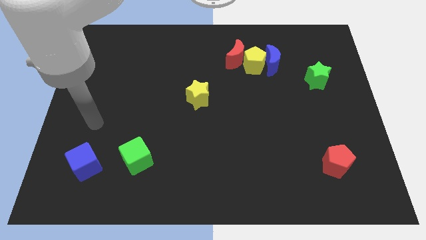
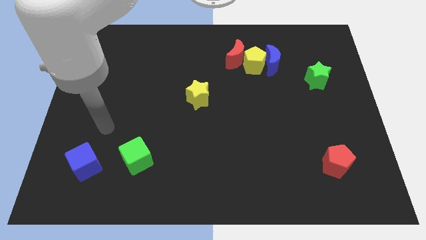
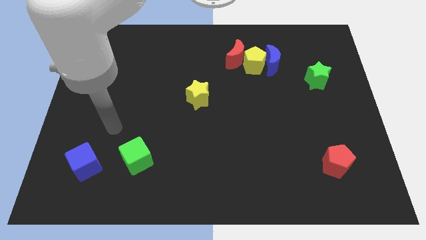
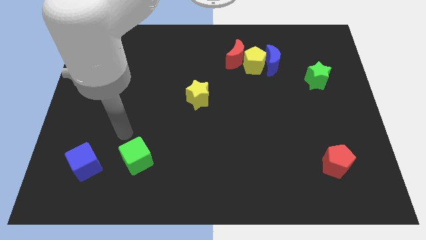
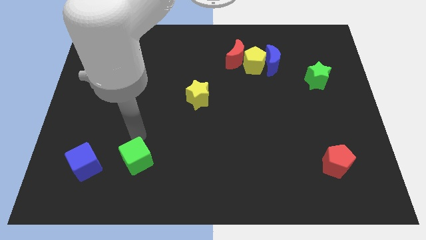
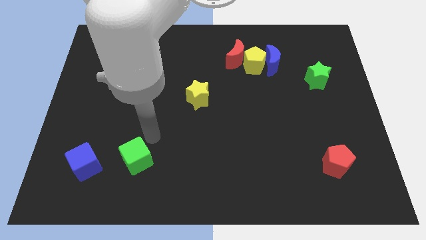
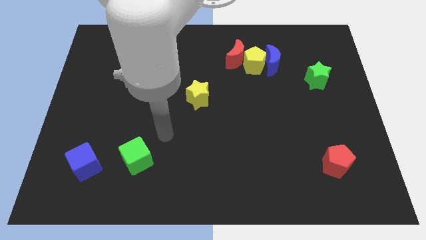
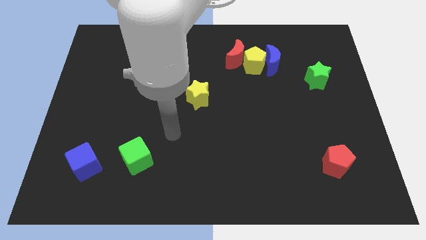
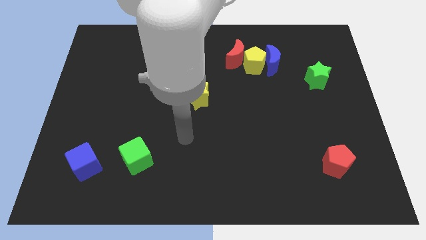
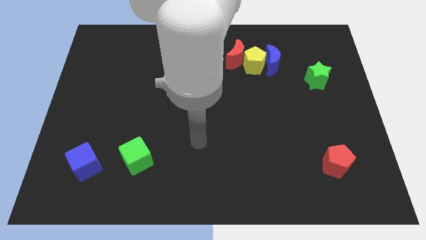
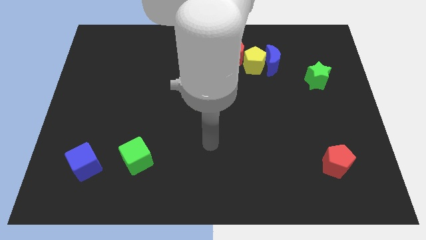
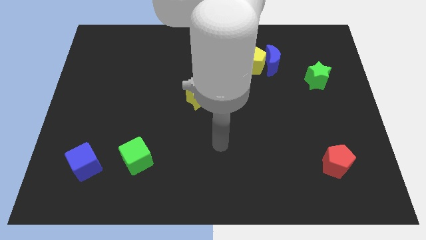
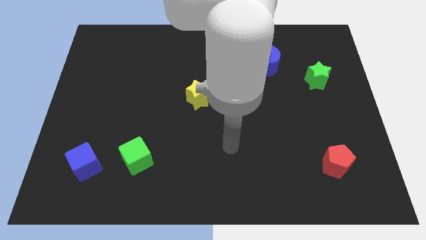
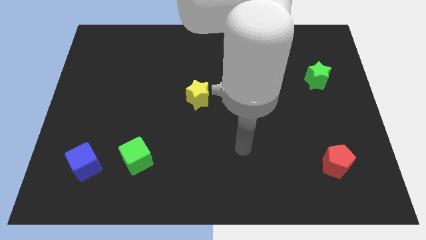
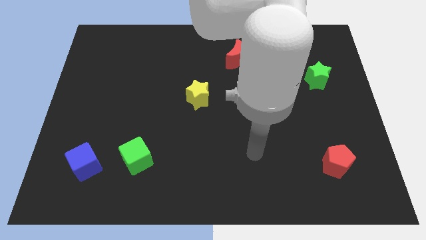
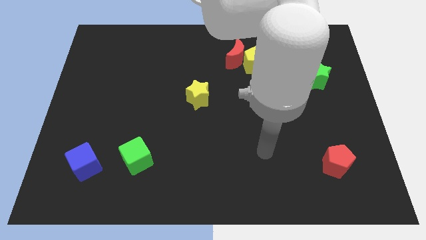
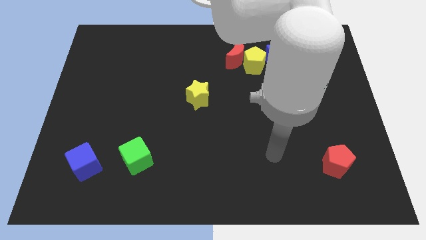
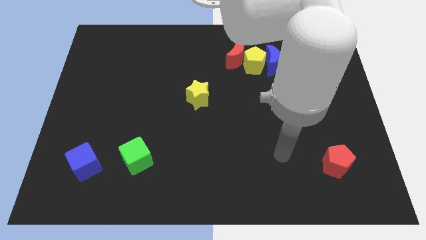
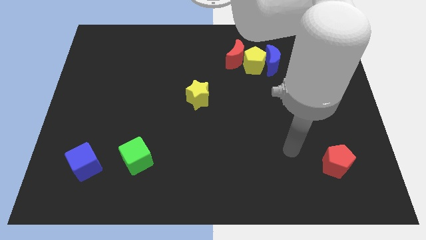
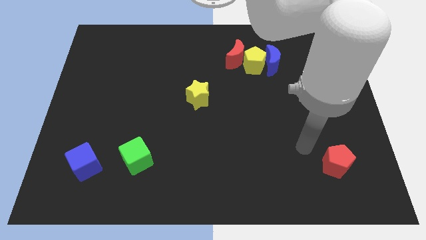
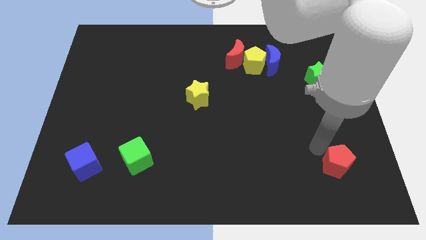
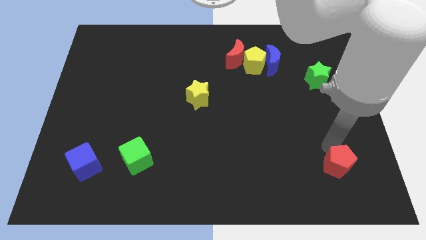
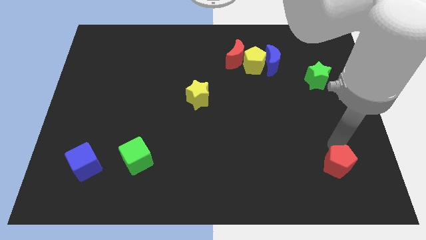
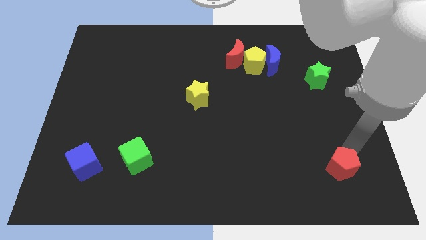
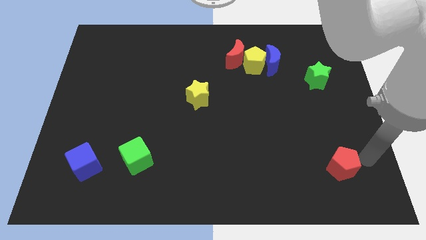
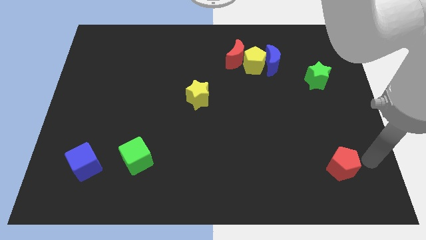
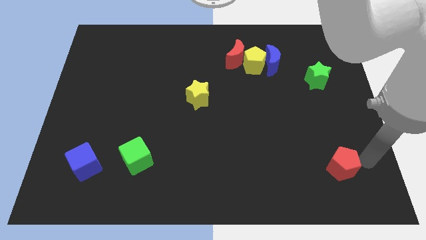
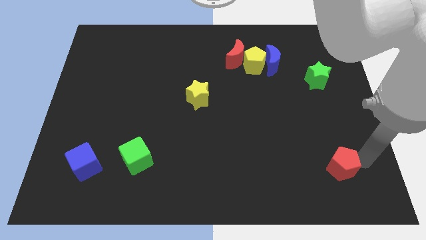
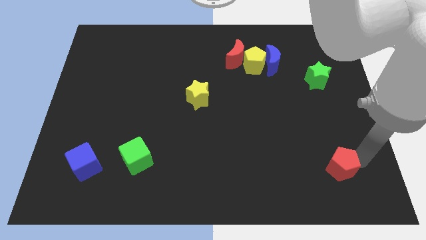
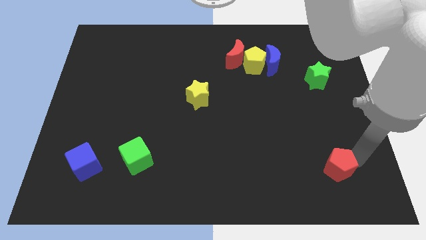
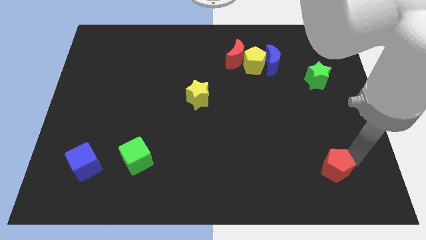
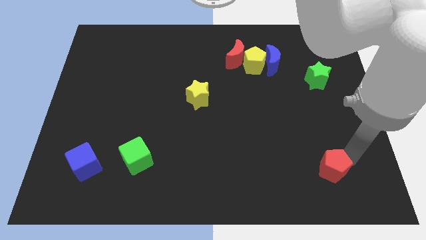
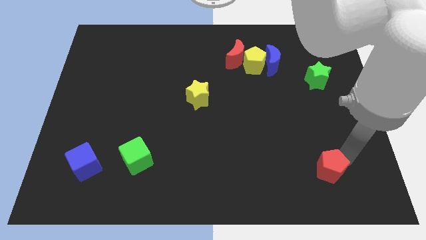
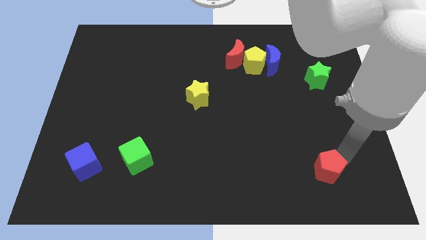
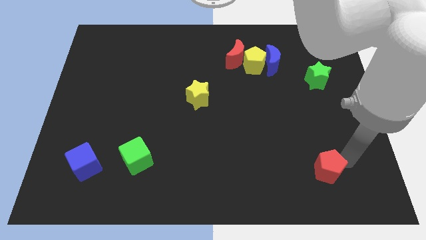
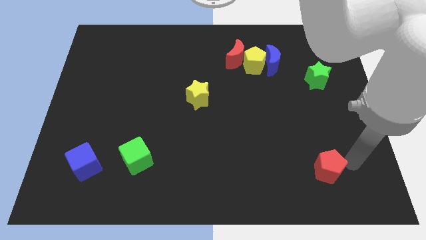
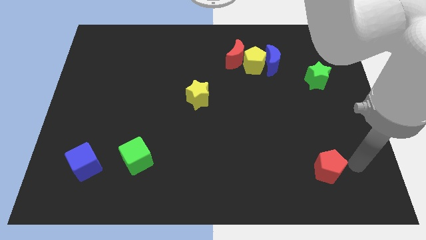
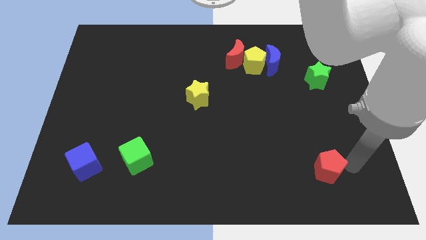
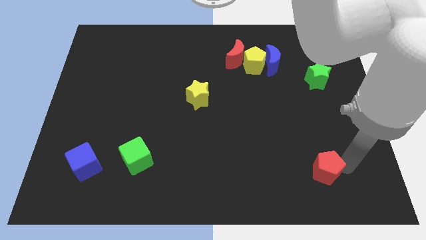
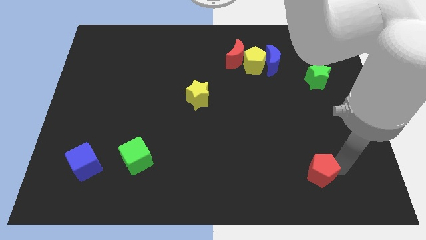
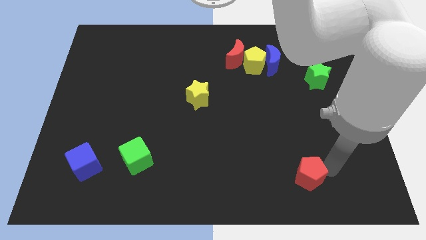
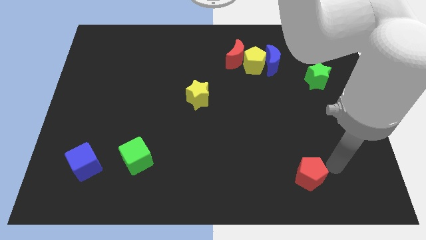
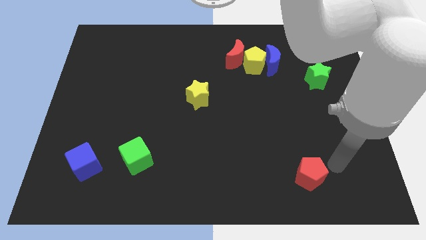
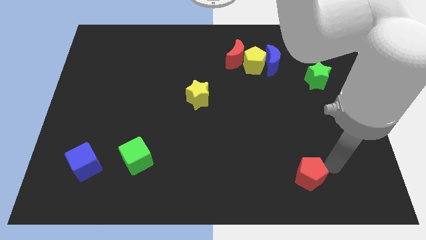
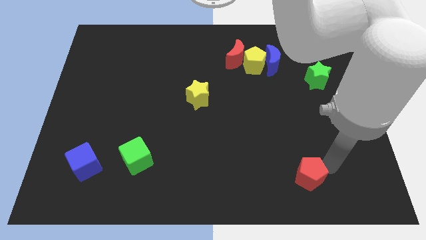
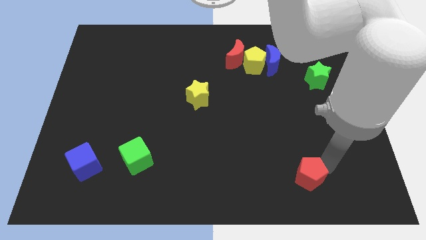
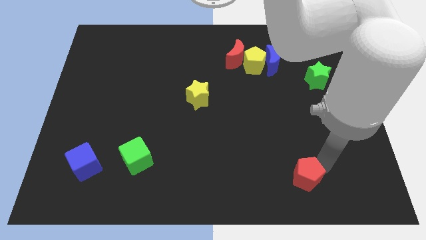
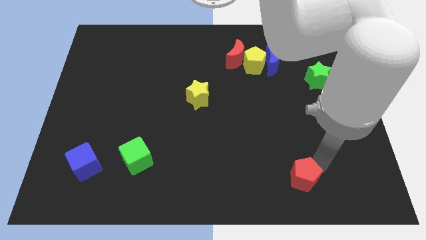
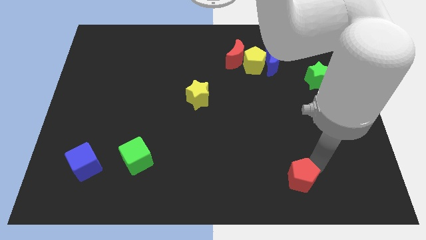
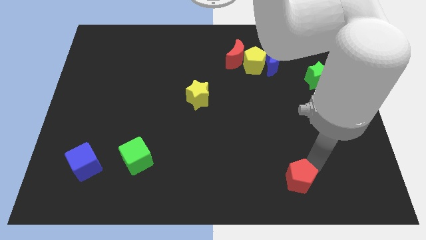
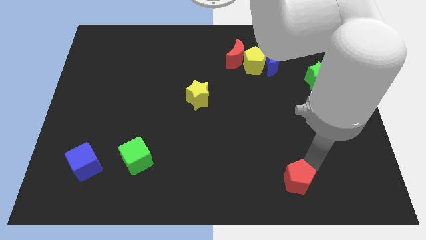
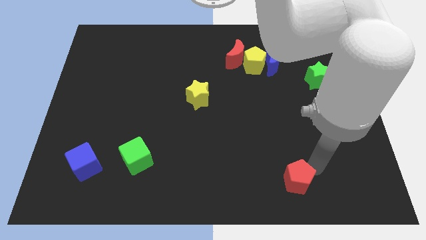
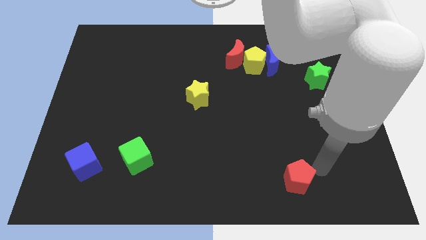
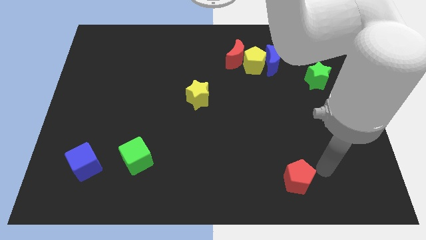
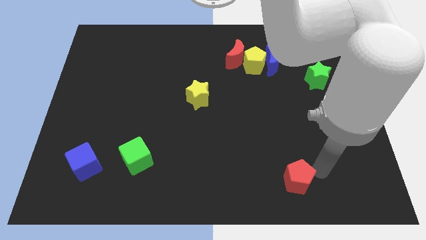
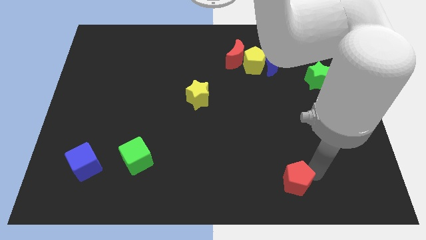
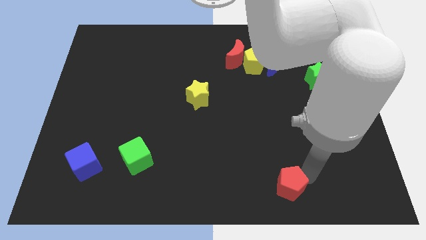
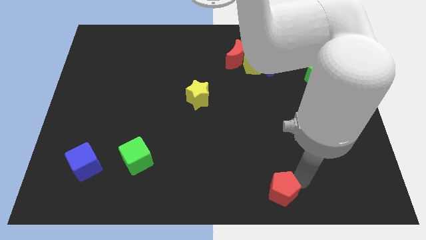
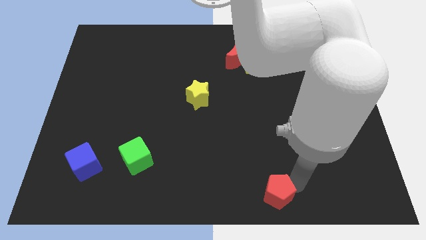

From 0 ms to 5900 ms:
put the red pentagon to the bottom
